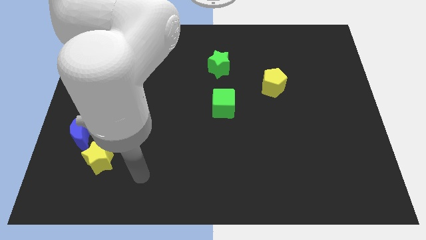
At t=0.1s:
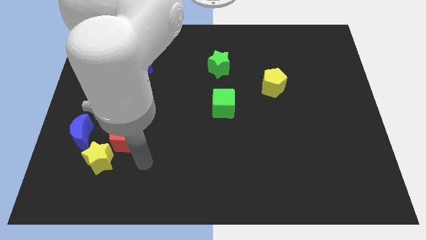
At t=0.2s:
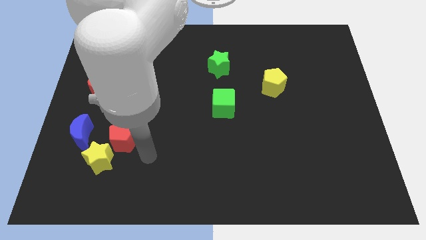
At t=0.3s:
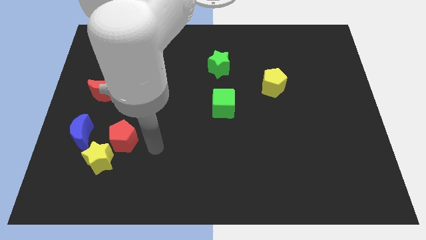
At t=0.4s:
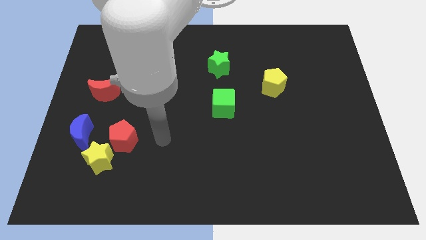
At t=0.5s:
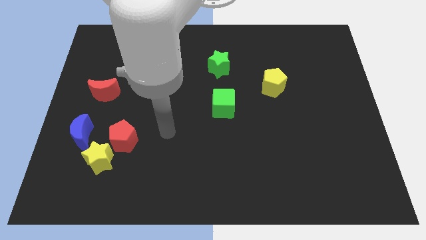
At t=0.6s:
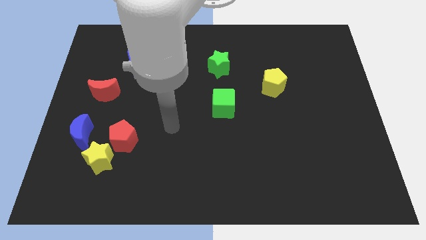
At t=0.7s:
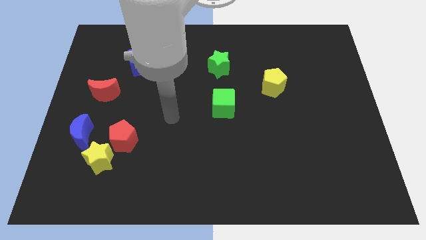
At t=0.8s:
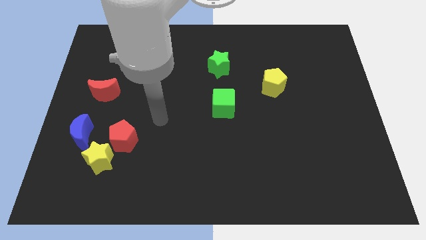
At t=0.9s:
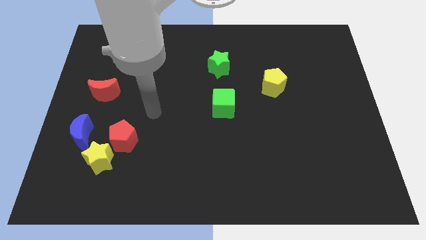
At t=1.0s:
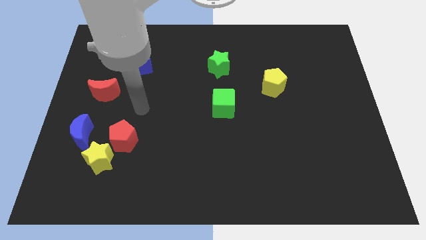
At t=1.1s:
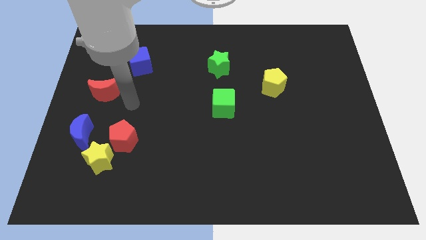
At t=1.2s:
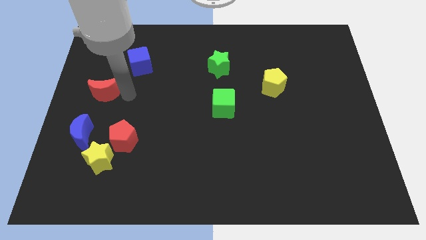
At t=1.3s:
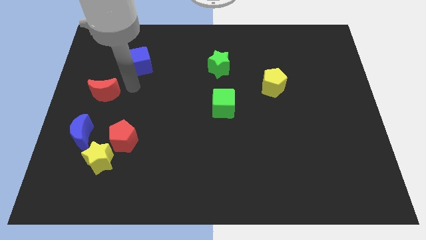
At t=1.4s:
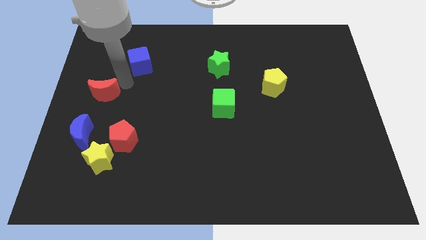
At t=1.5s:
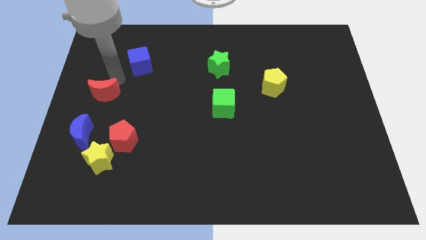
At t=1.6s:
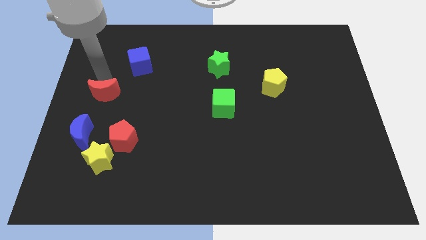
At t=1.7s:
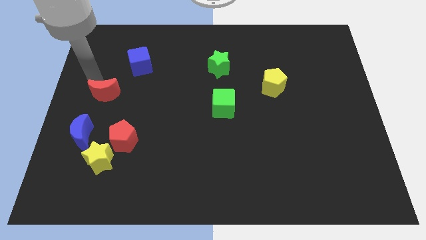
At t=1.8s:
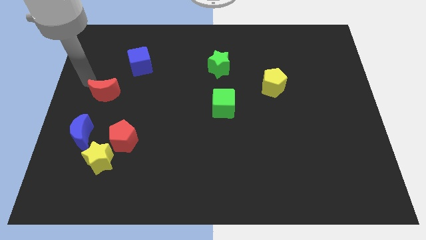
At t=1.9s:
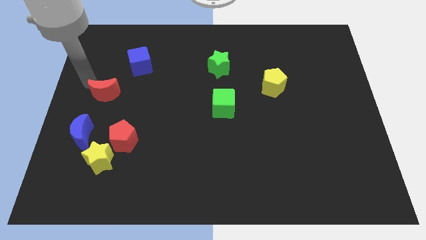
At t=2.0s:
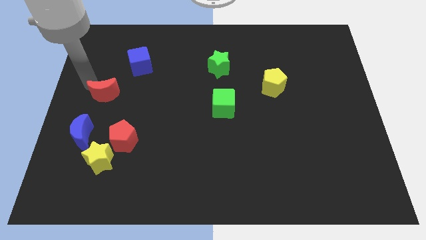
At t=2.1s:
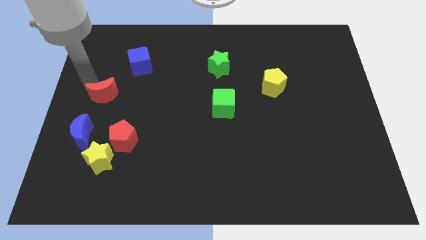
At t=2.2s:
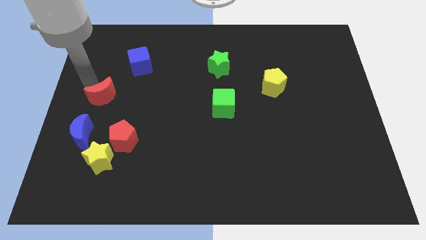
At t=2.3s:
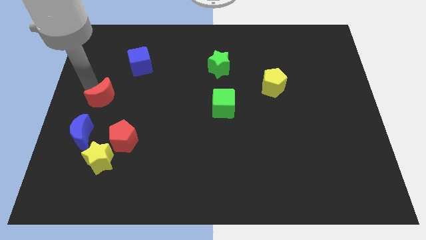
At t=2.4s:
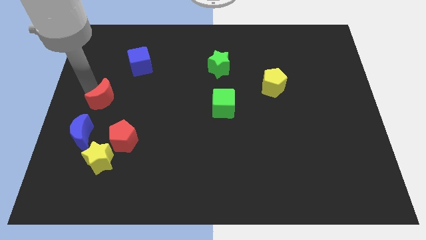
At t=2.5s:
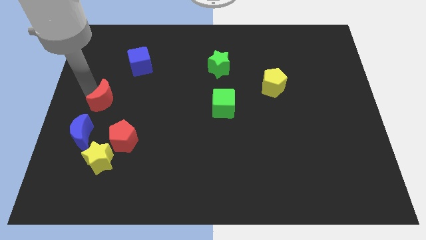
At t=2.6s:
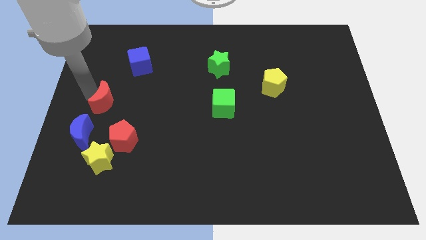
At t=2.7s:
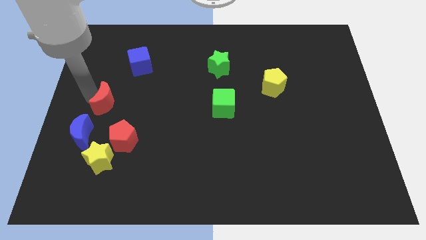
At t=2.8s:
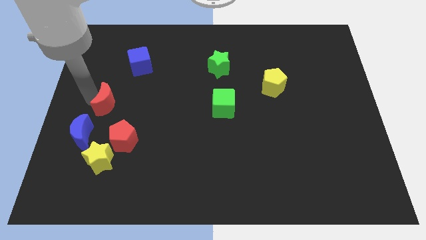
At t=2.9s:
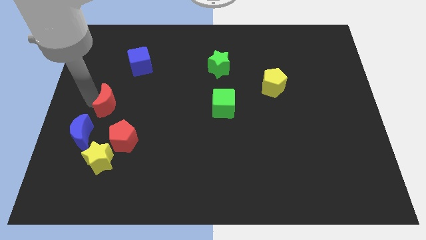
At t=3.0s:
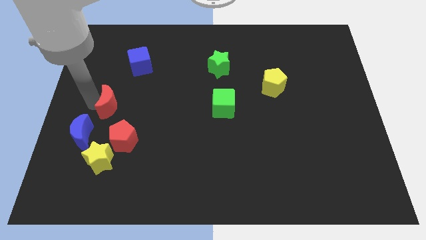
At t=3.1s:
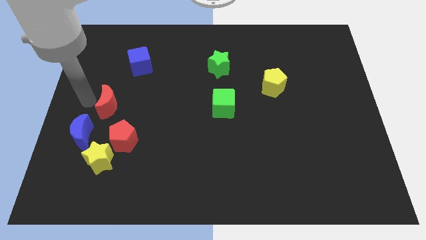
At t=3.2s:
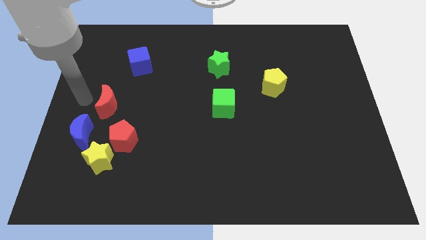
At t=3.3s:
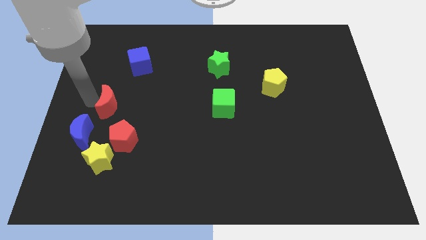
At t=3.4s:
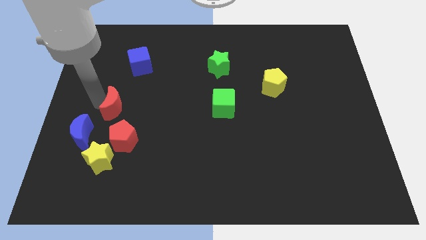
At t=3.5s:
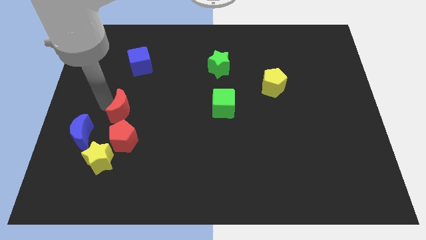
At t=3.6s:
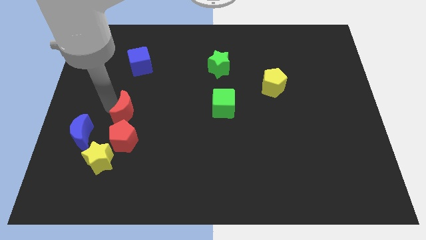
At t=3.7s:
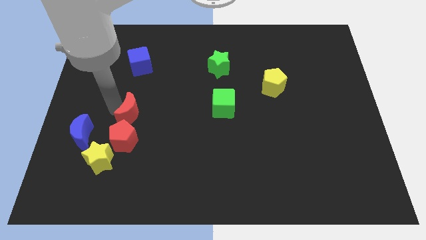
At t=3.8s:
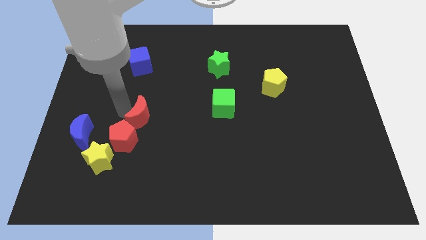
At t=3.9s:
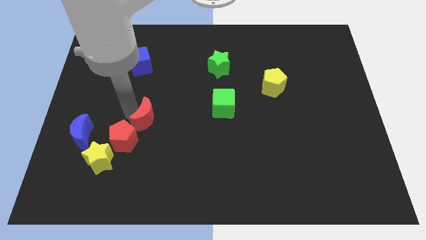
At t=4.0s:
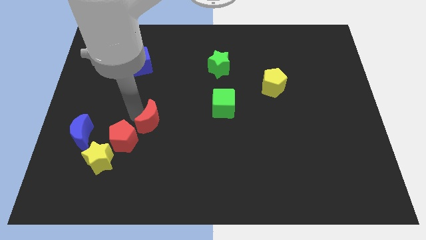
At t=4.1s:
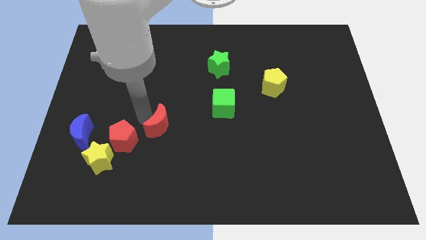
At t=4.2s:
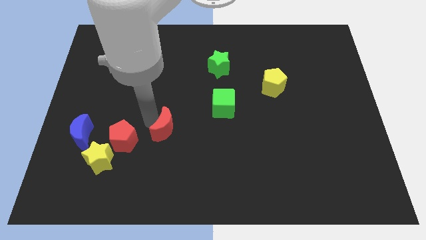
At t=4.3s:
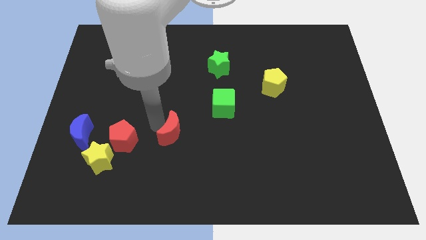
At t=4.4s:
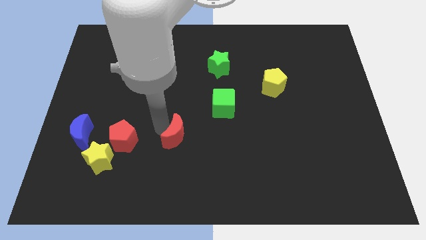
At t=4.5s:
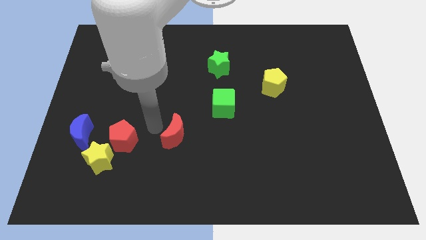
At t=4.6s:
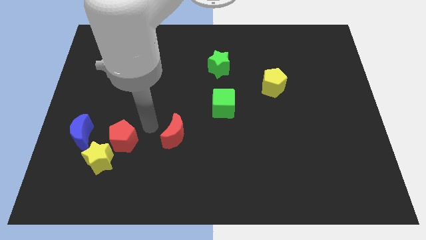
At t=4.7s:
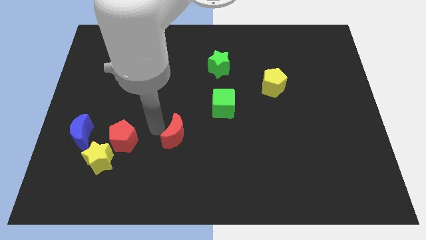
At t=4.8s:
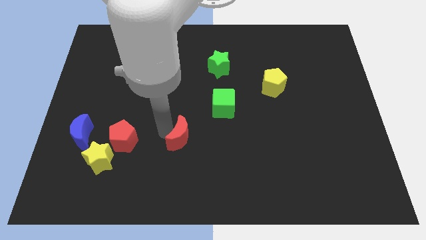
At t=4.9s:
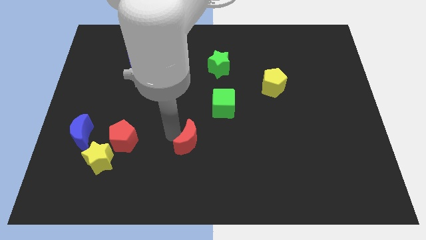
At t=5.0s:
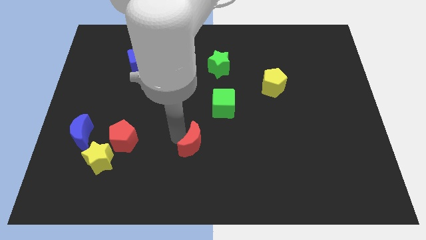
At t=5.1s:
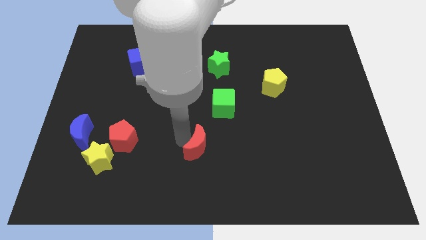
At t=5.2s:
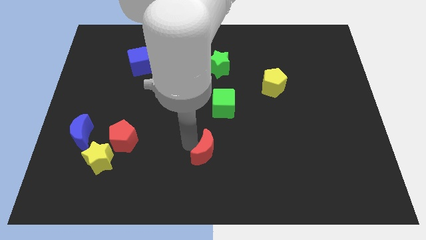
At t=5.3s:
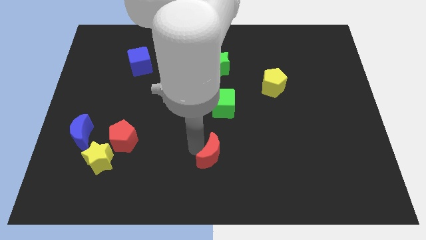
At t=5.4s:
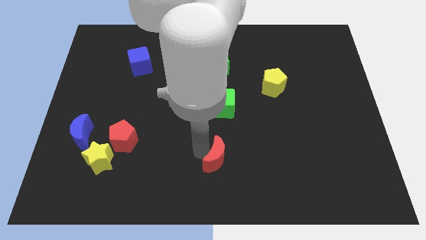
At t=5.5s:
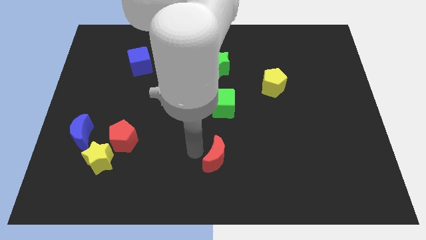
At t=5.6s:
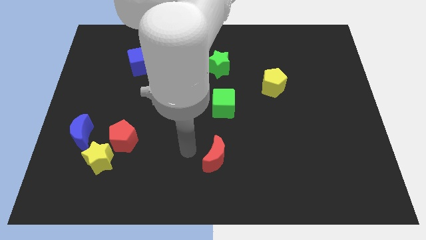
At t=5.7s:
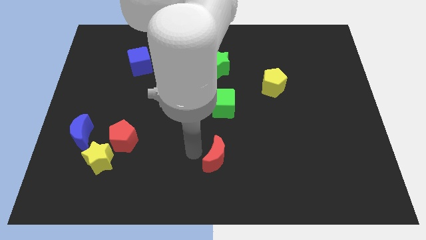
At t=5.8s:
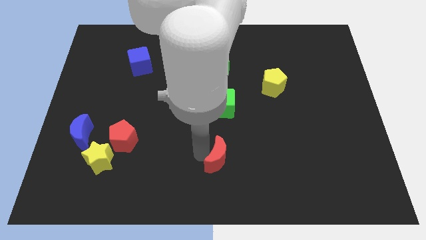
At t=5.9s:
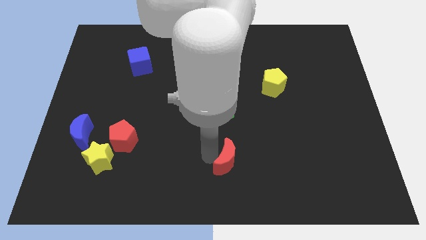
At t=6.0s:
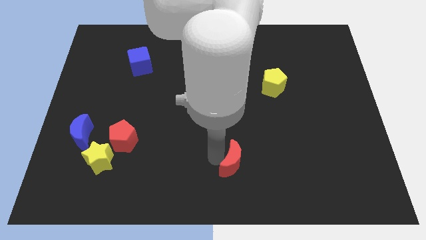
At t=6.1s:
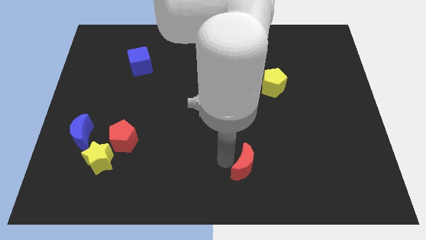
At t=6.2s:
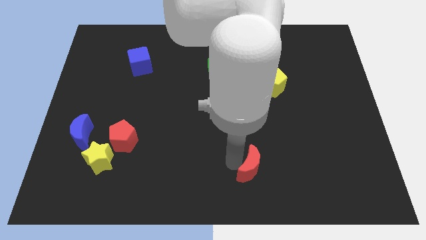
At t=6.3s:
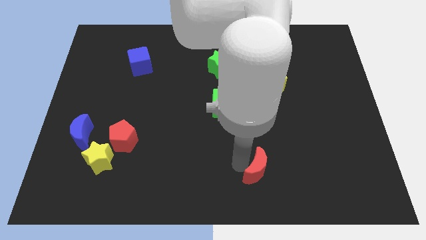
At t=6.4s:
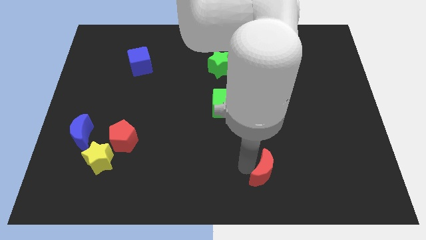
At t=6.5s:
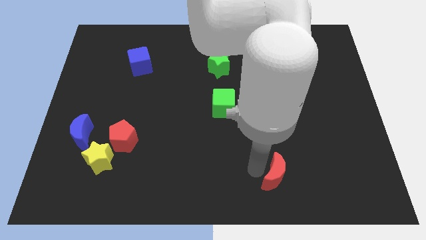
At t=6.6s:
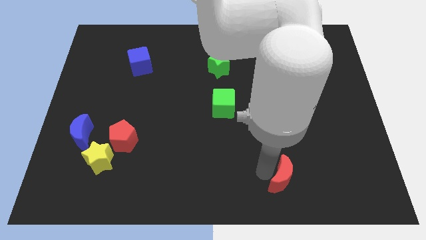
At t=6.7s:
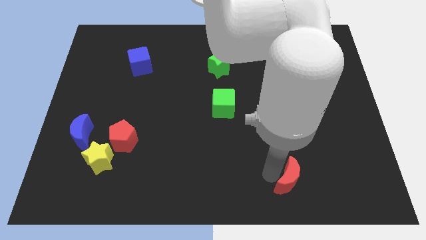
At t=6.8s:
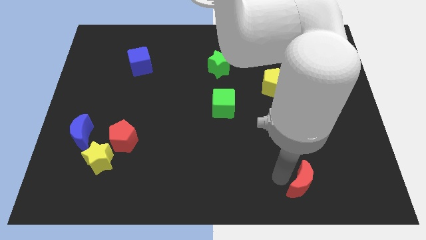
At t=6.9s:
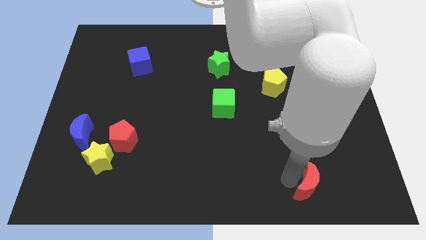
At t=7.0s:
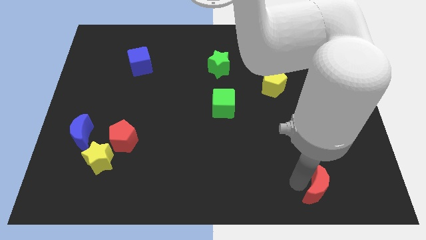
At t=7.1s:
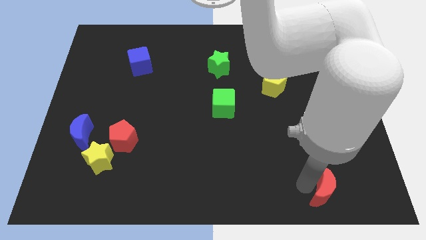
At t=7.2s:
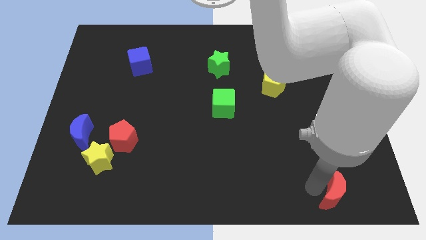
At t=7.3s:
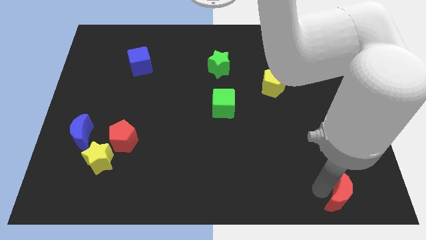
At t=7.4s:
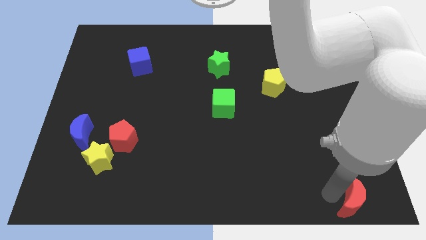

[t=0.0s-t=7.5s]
slide the red moon to the bottom right of the board
